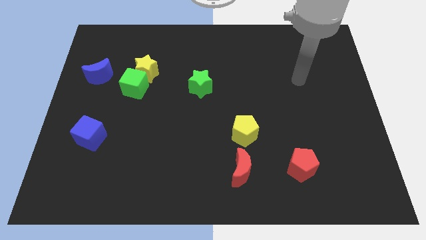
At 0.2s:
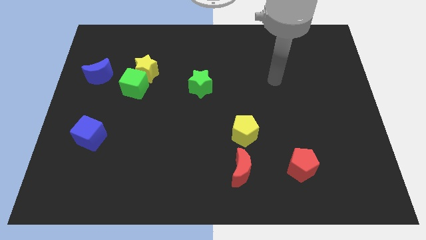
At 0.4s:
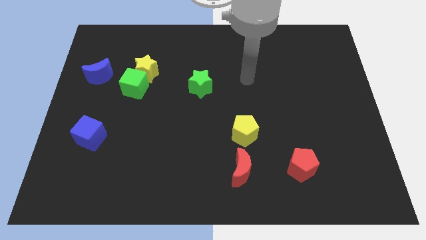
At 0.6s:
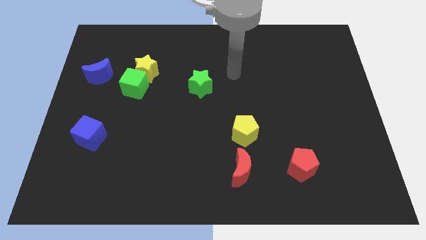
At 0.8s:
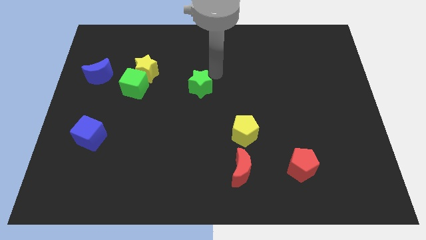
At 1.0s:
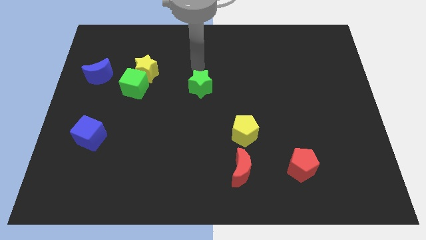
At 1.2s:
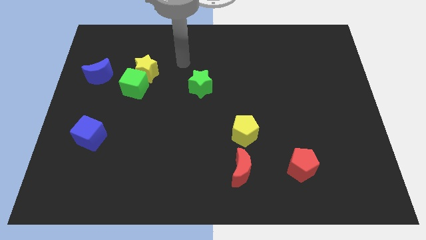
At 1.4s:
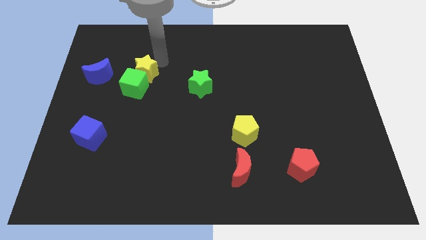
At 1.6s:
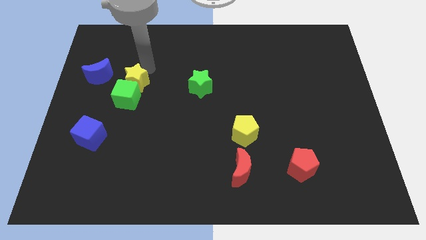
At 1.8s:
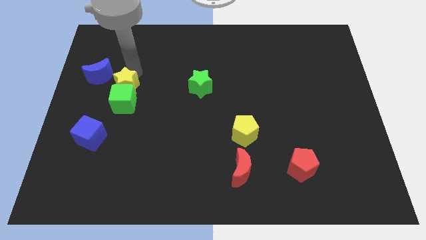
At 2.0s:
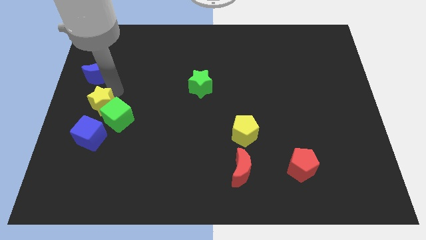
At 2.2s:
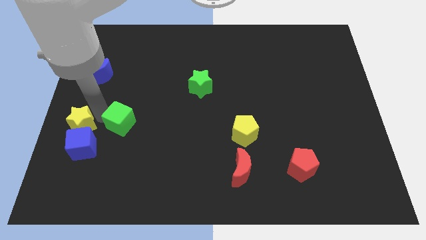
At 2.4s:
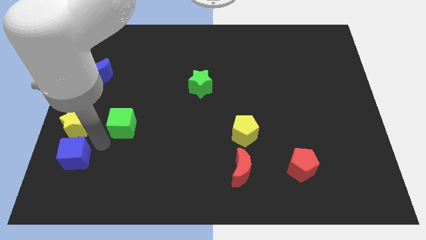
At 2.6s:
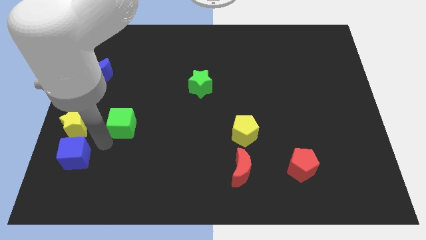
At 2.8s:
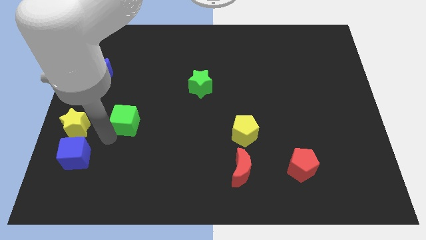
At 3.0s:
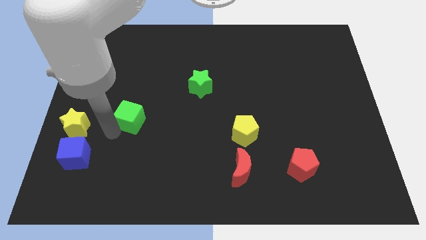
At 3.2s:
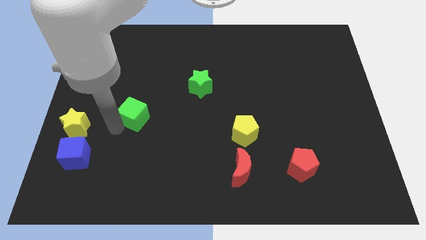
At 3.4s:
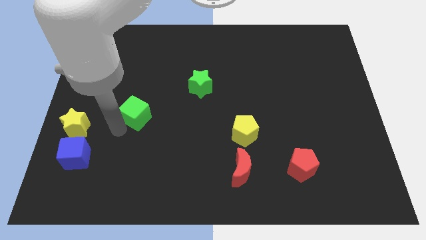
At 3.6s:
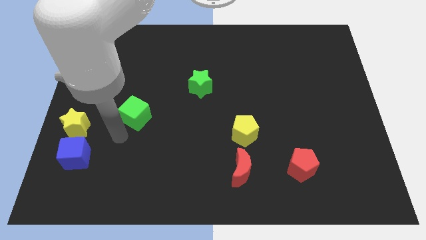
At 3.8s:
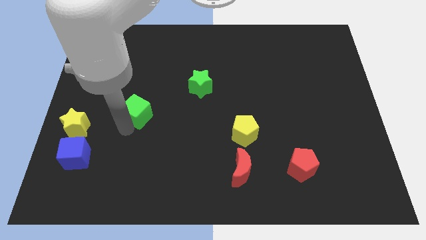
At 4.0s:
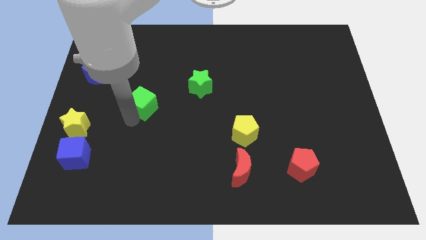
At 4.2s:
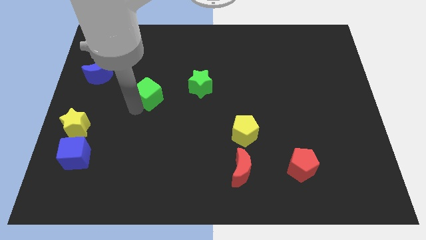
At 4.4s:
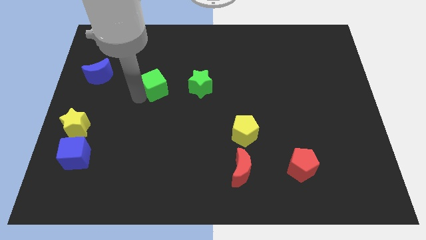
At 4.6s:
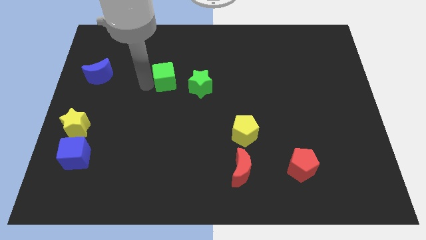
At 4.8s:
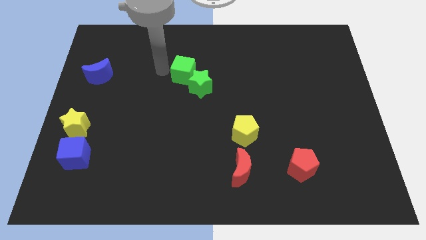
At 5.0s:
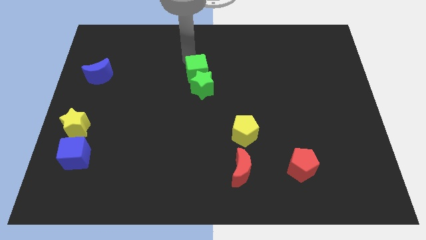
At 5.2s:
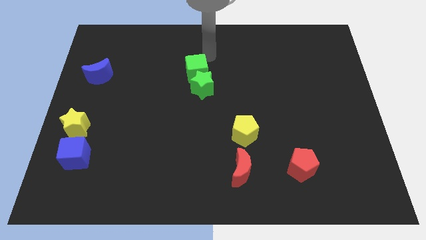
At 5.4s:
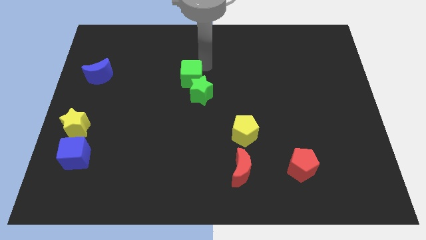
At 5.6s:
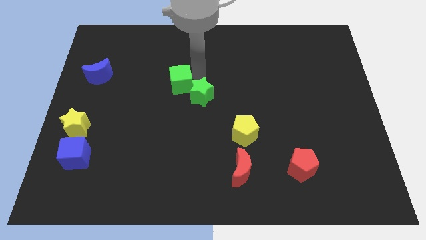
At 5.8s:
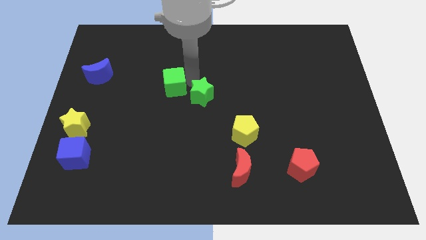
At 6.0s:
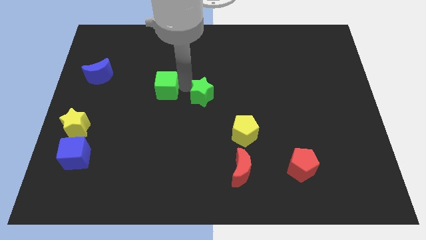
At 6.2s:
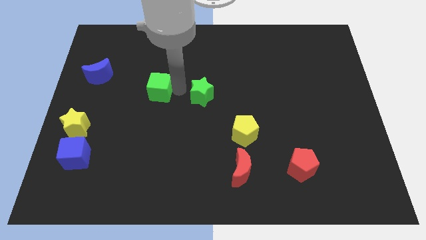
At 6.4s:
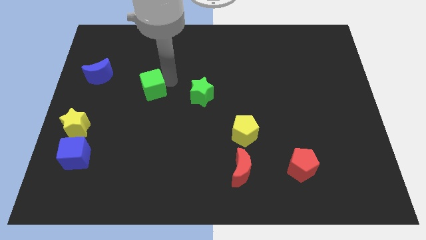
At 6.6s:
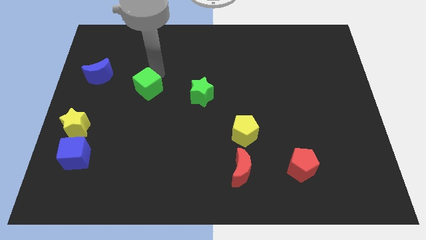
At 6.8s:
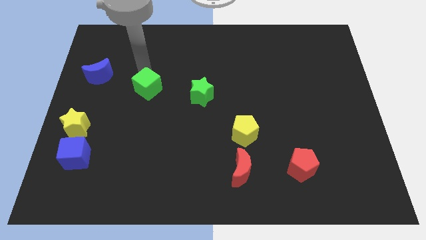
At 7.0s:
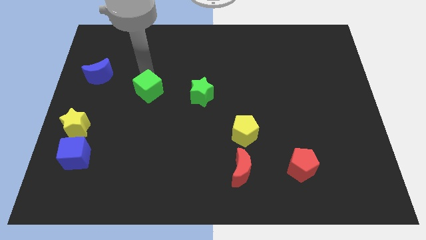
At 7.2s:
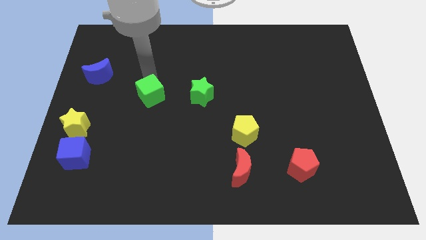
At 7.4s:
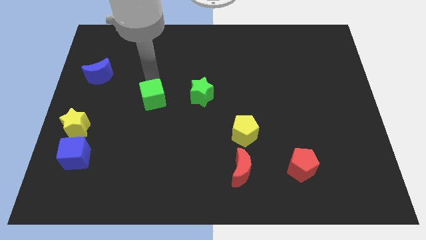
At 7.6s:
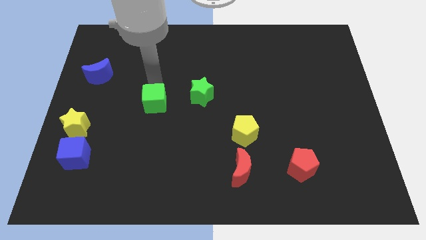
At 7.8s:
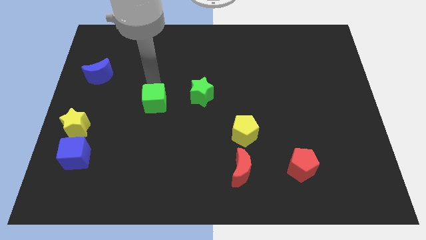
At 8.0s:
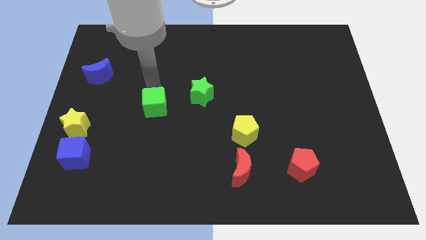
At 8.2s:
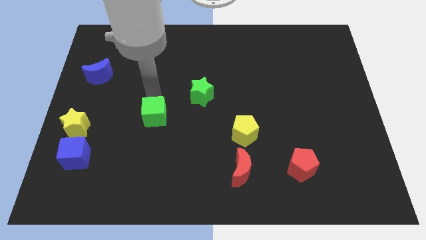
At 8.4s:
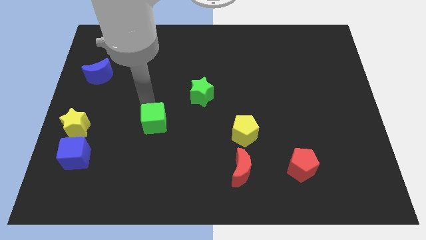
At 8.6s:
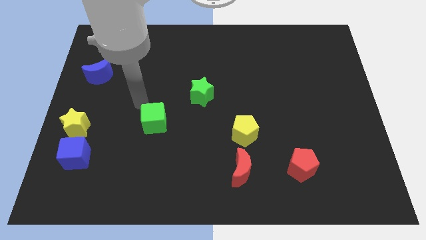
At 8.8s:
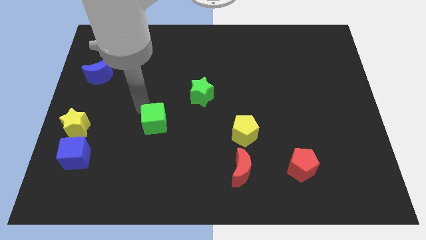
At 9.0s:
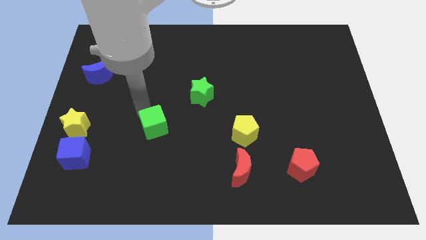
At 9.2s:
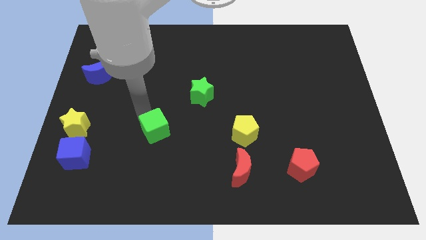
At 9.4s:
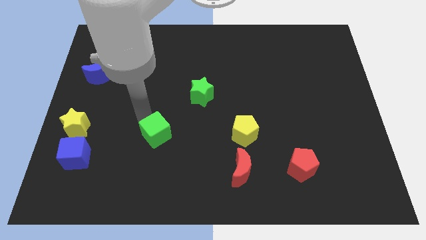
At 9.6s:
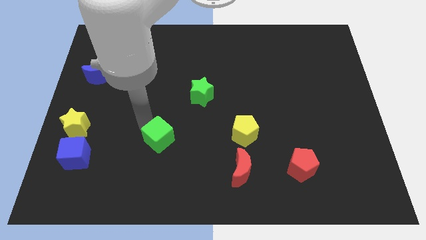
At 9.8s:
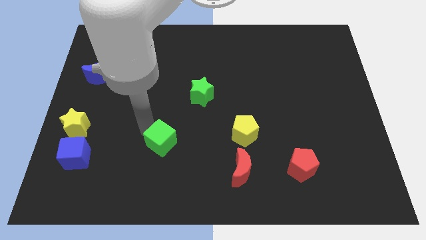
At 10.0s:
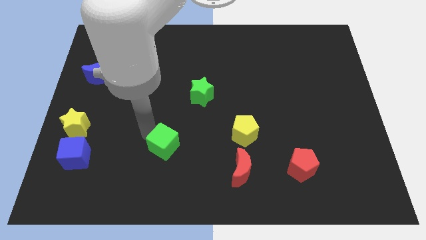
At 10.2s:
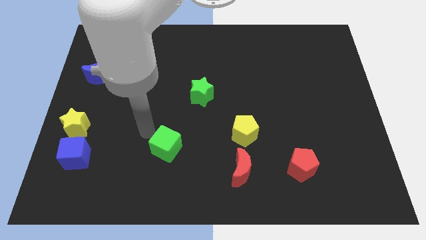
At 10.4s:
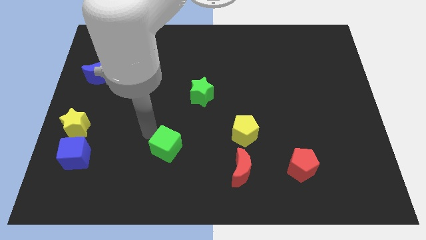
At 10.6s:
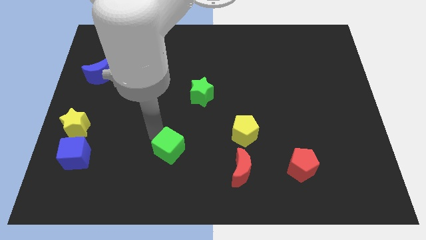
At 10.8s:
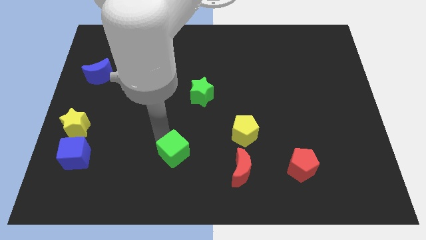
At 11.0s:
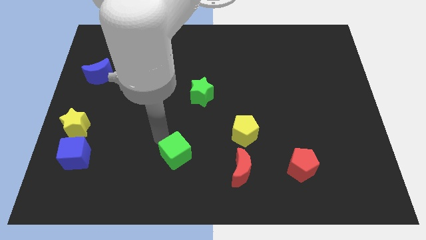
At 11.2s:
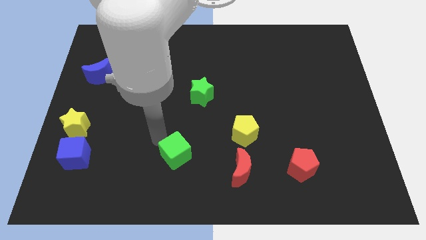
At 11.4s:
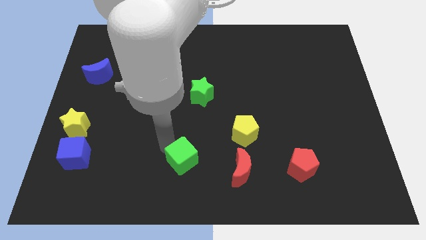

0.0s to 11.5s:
put the green cube to the bottom

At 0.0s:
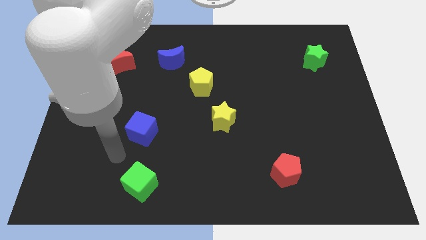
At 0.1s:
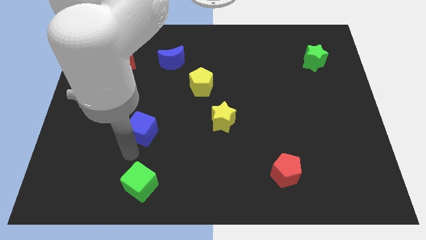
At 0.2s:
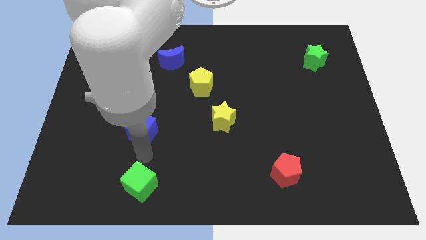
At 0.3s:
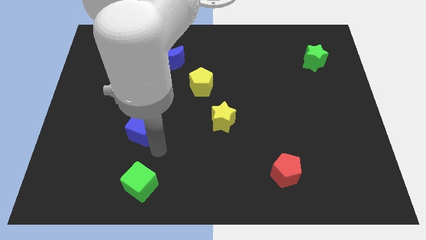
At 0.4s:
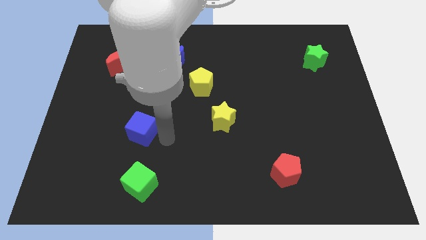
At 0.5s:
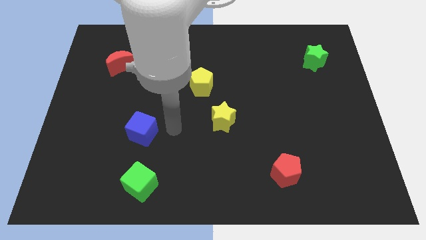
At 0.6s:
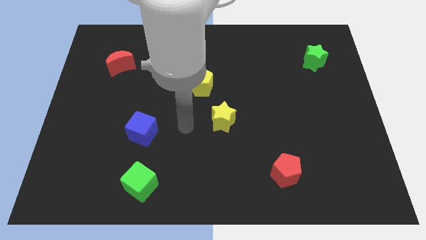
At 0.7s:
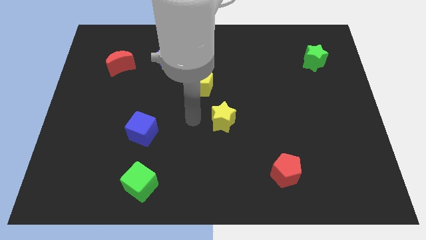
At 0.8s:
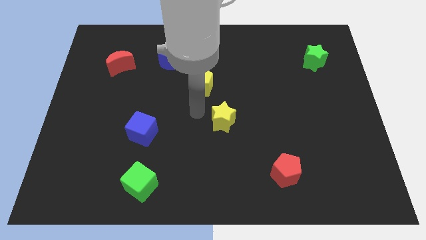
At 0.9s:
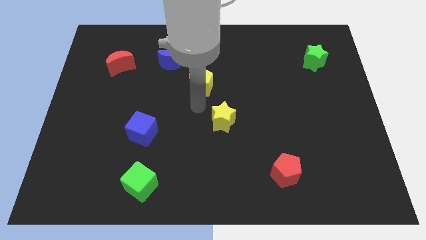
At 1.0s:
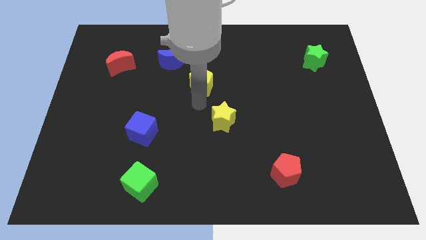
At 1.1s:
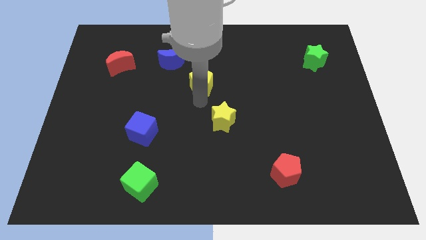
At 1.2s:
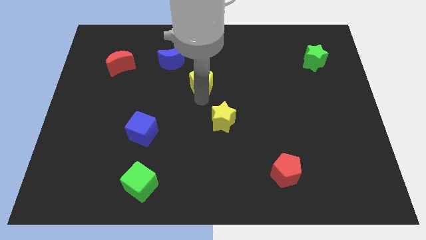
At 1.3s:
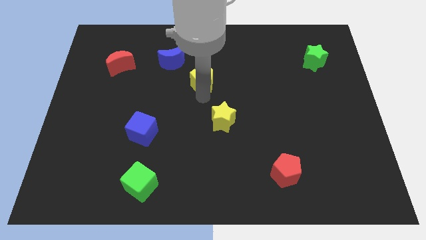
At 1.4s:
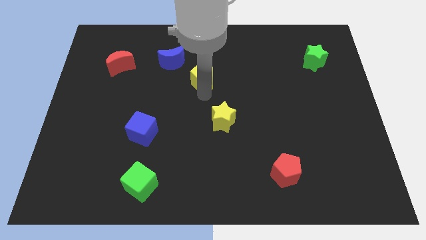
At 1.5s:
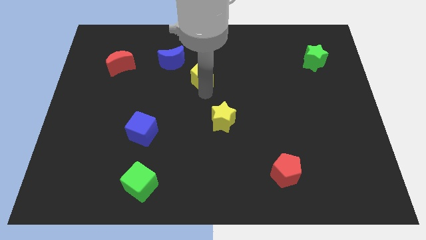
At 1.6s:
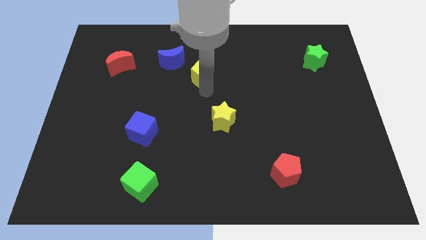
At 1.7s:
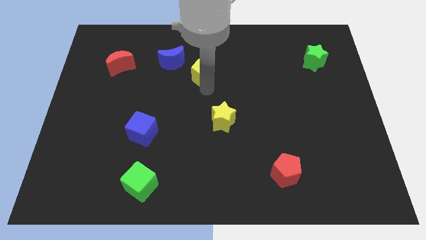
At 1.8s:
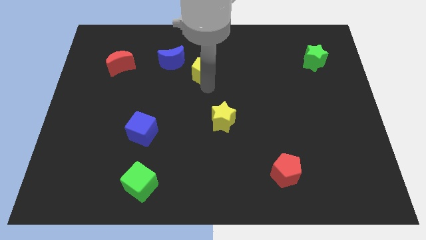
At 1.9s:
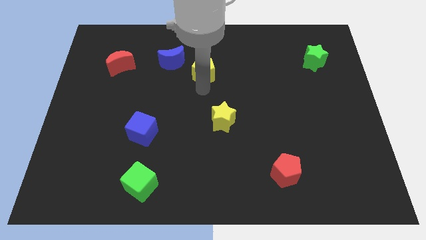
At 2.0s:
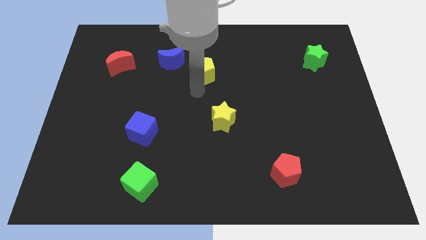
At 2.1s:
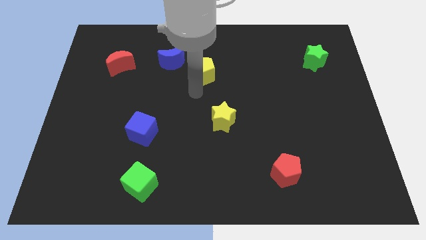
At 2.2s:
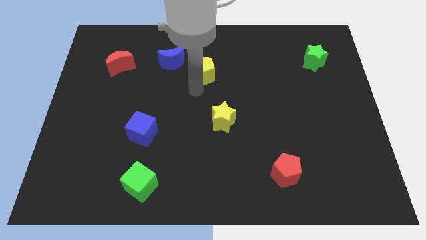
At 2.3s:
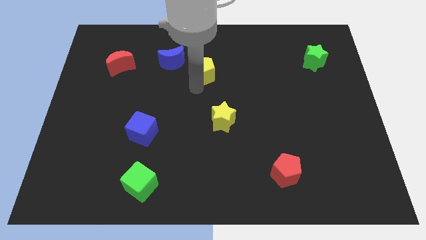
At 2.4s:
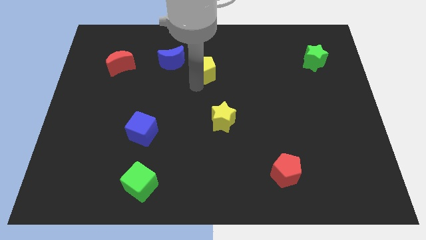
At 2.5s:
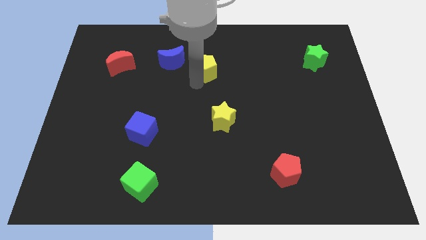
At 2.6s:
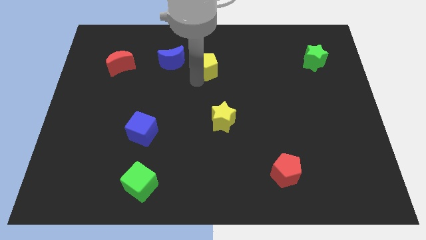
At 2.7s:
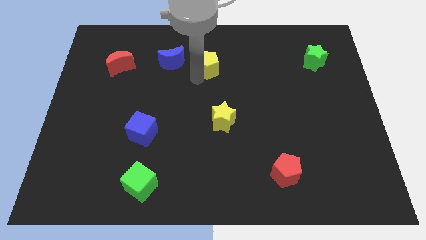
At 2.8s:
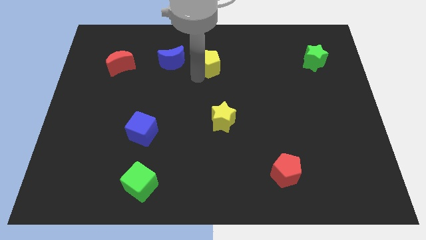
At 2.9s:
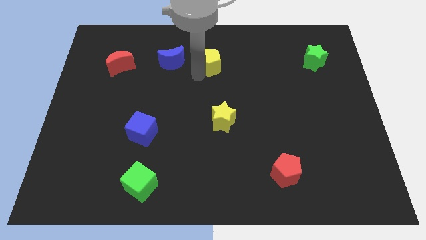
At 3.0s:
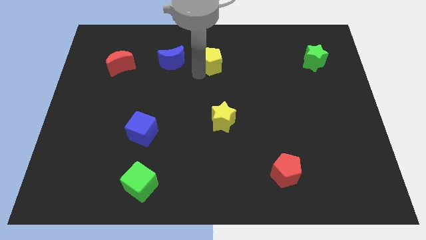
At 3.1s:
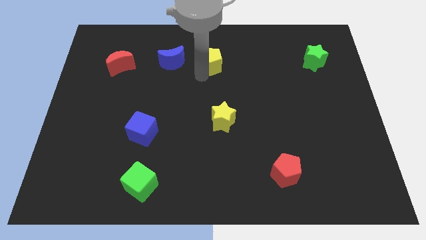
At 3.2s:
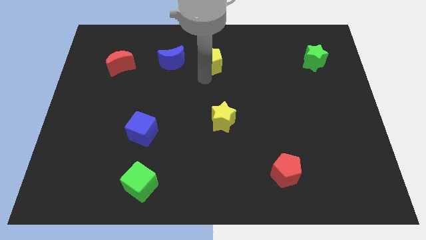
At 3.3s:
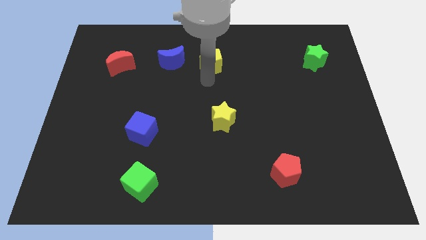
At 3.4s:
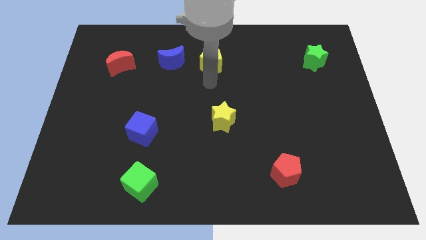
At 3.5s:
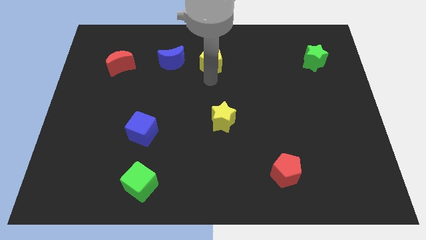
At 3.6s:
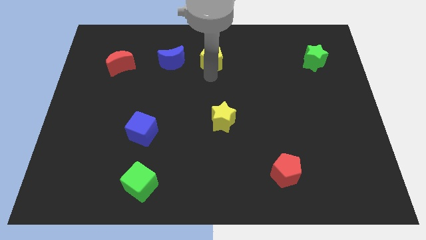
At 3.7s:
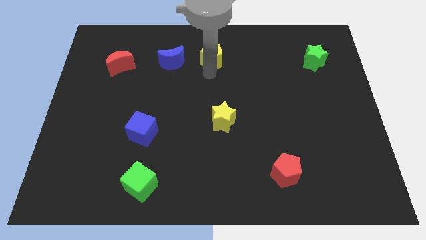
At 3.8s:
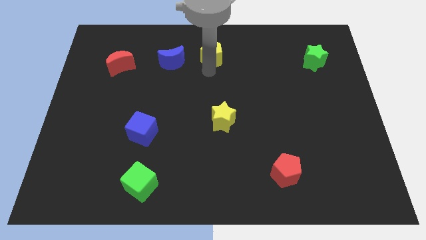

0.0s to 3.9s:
slide the yellow pentagon to the towards your base
